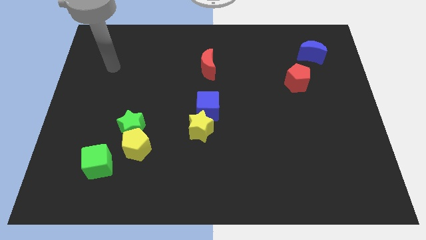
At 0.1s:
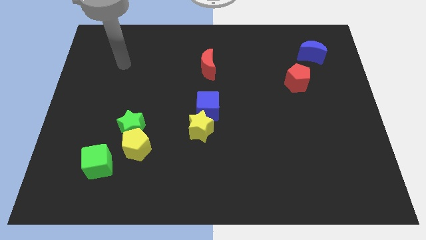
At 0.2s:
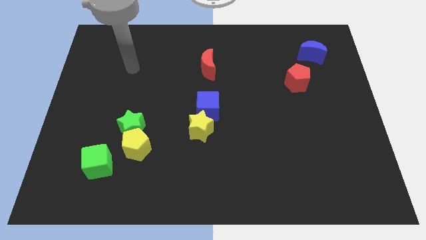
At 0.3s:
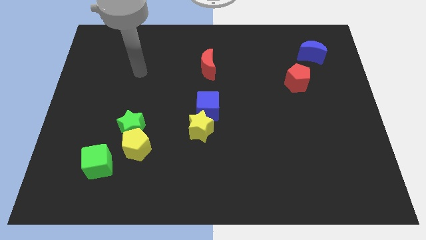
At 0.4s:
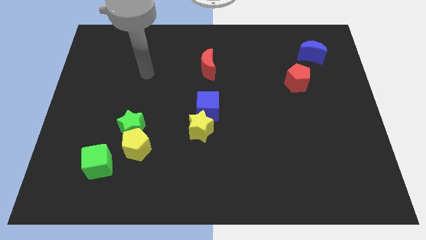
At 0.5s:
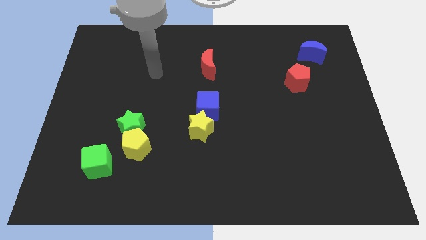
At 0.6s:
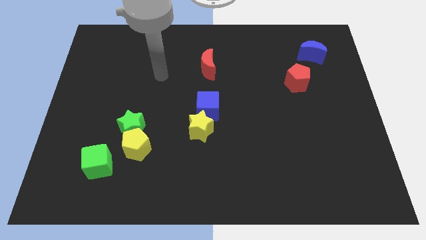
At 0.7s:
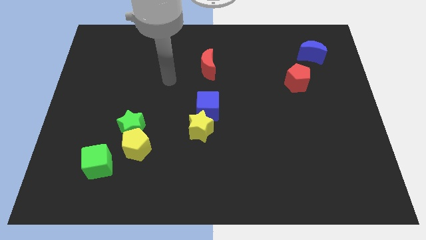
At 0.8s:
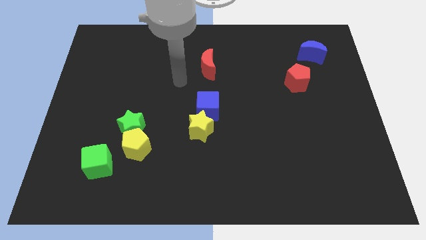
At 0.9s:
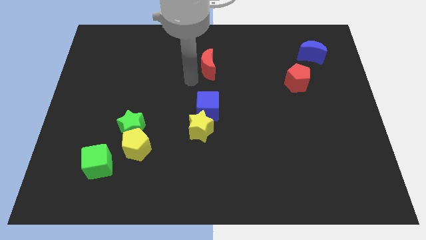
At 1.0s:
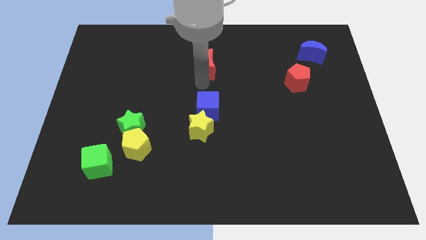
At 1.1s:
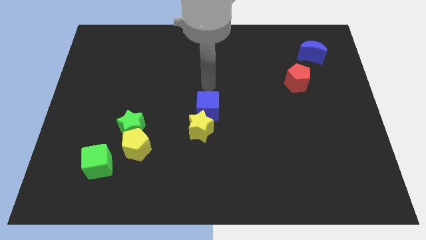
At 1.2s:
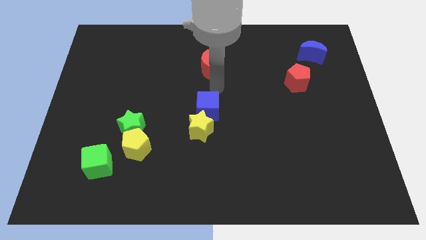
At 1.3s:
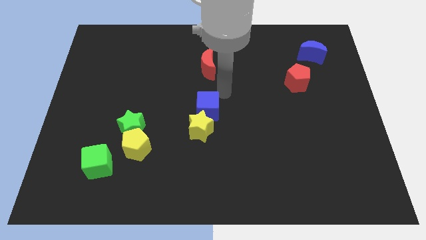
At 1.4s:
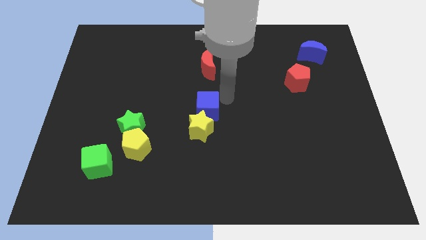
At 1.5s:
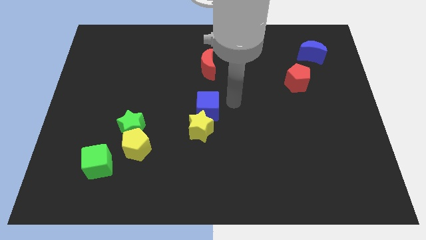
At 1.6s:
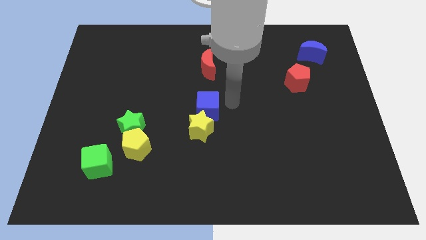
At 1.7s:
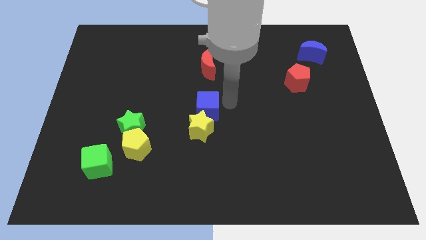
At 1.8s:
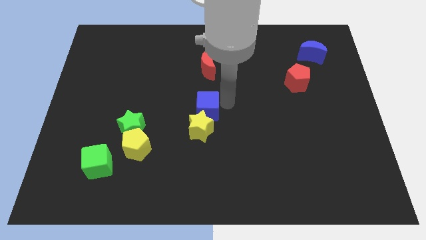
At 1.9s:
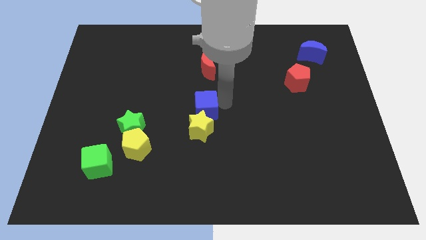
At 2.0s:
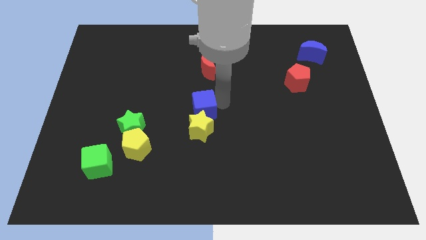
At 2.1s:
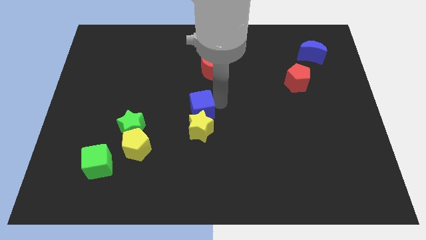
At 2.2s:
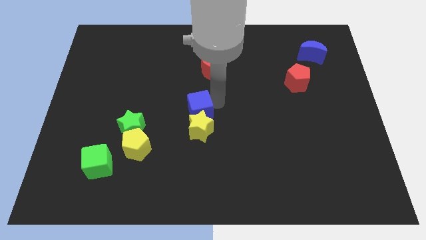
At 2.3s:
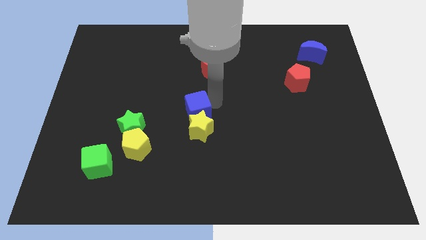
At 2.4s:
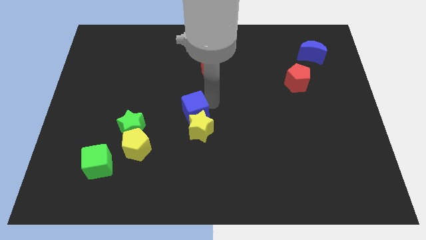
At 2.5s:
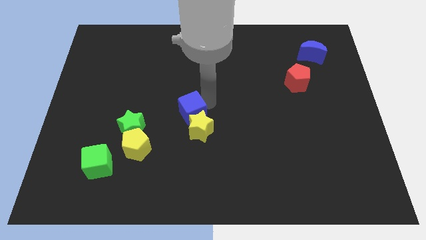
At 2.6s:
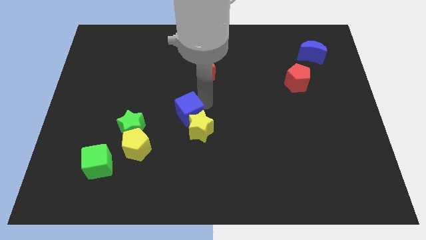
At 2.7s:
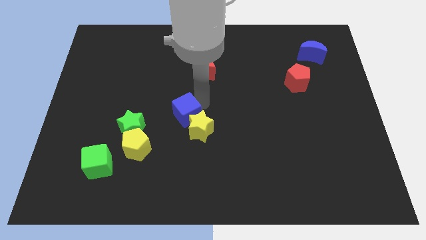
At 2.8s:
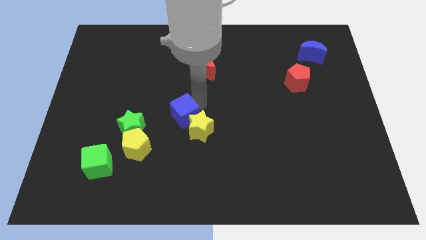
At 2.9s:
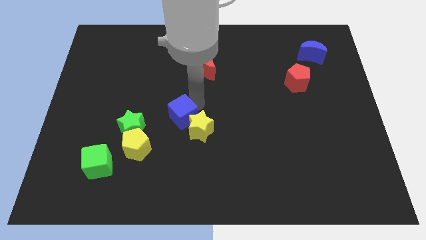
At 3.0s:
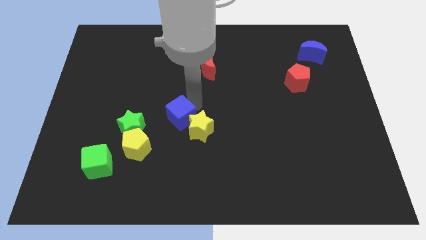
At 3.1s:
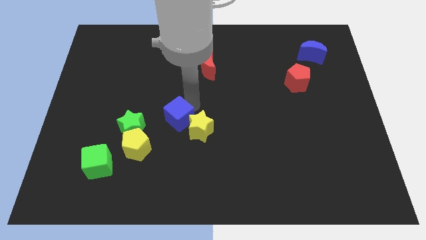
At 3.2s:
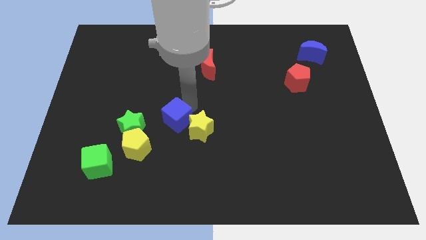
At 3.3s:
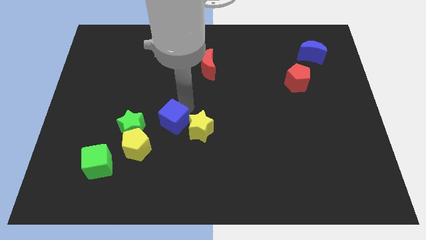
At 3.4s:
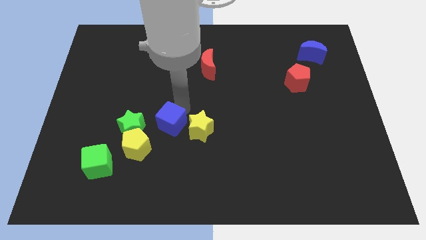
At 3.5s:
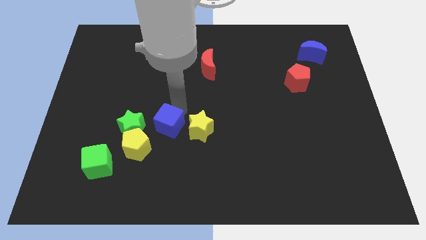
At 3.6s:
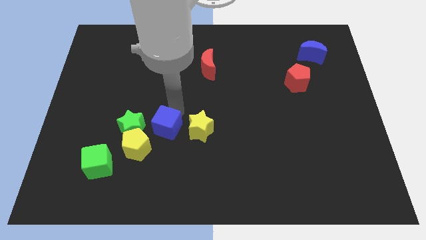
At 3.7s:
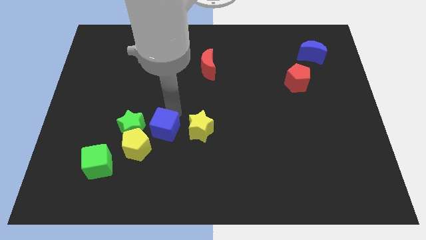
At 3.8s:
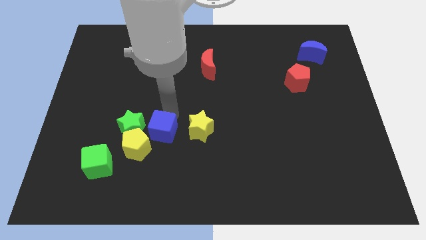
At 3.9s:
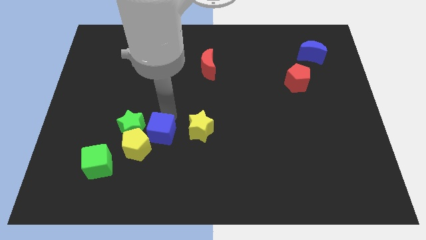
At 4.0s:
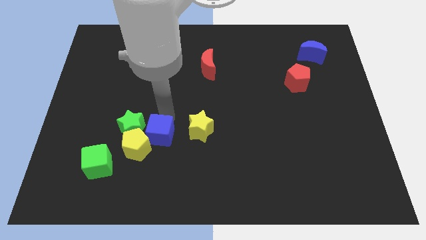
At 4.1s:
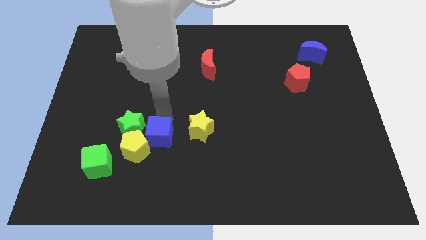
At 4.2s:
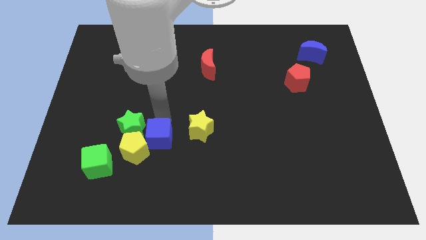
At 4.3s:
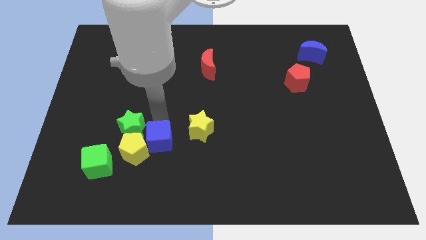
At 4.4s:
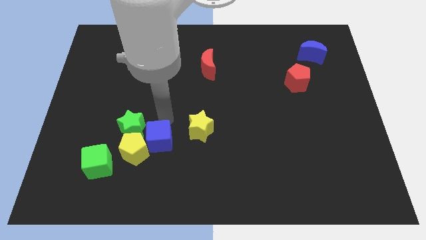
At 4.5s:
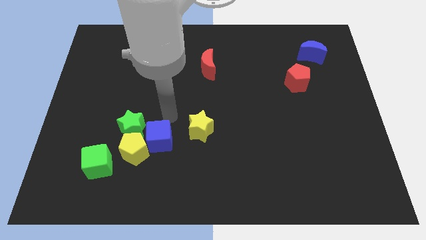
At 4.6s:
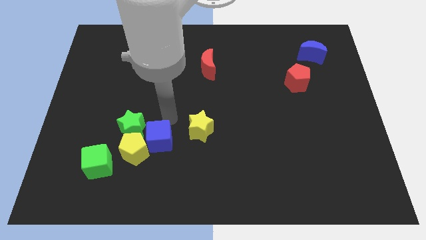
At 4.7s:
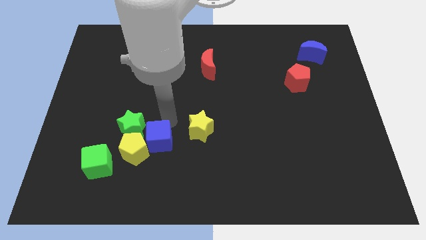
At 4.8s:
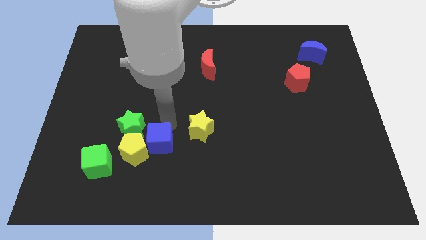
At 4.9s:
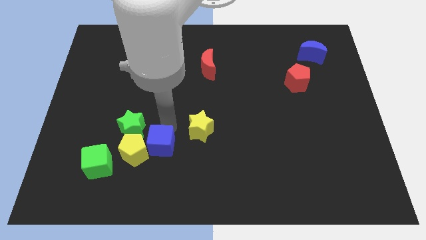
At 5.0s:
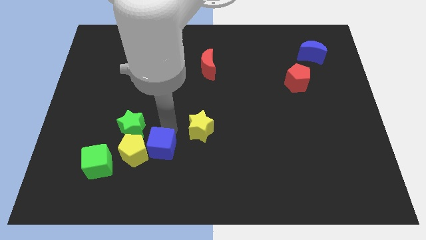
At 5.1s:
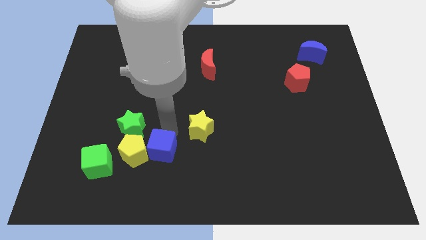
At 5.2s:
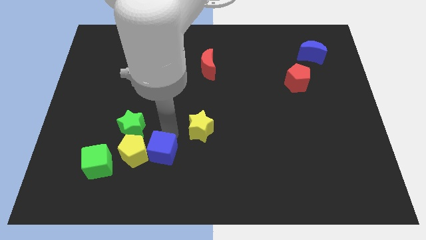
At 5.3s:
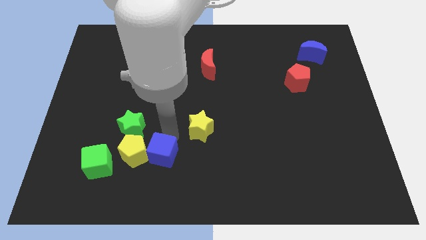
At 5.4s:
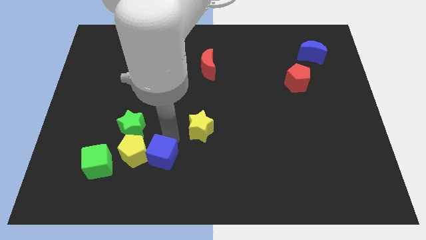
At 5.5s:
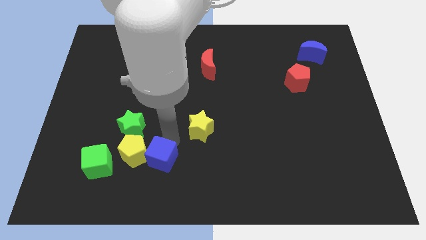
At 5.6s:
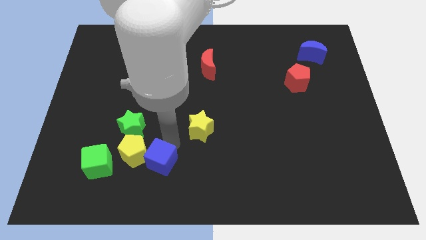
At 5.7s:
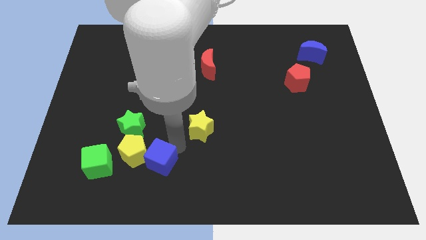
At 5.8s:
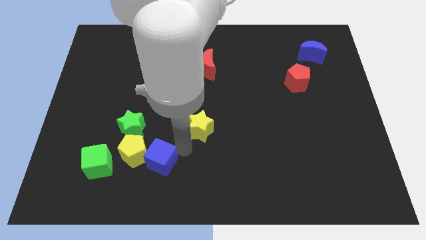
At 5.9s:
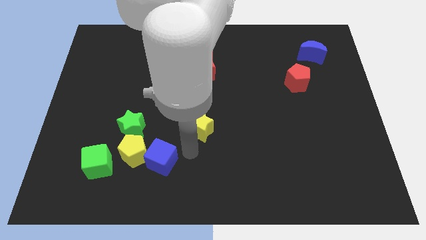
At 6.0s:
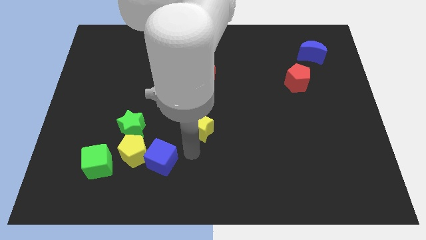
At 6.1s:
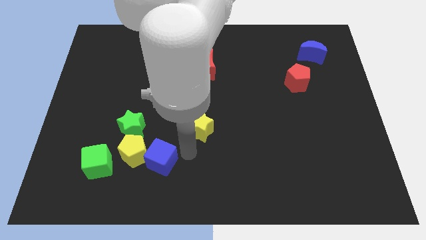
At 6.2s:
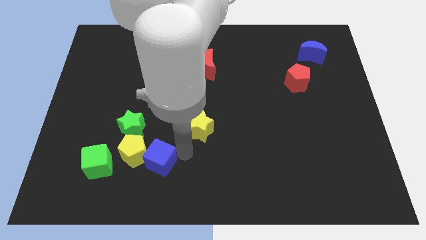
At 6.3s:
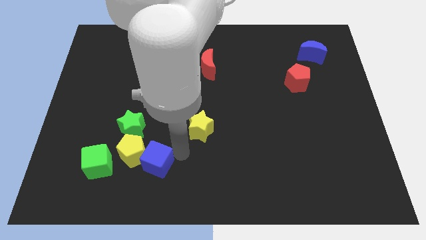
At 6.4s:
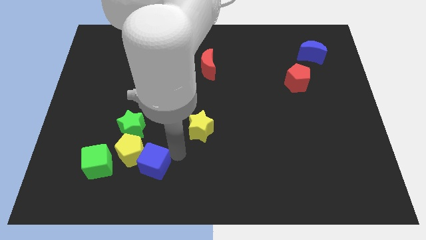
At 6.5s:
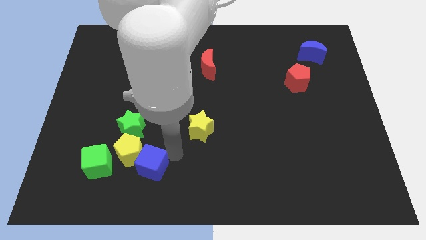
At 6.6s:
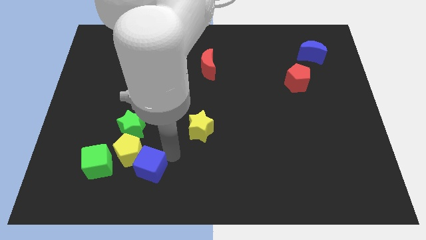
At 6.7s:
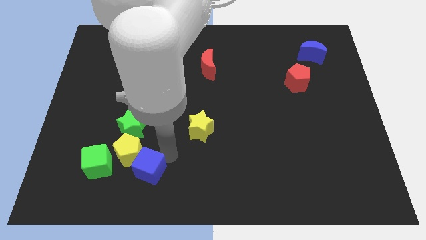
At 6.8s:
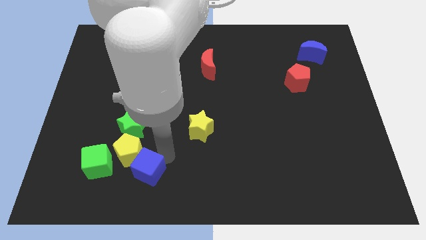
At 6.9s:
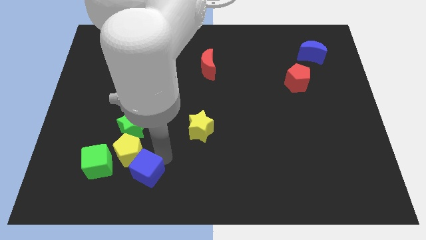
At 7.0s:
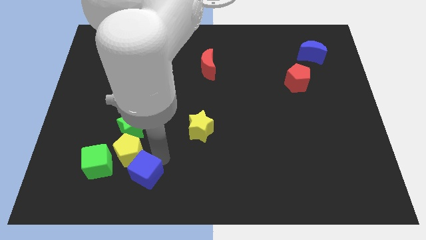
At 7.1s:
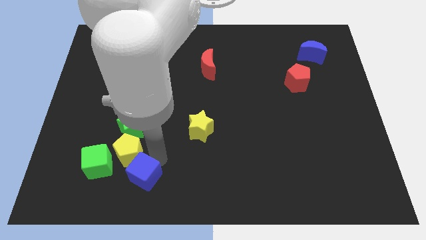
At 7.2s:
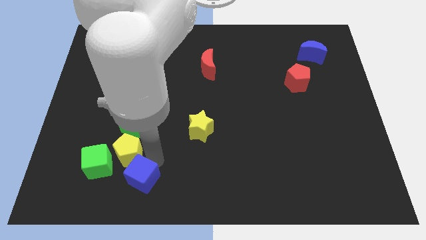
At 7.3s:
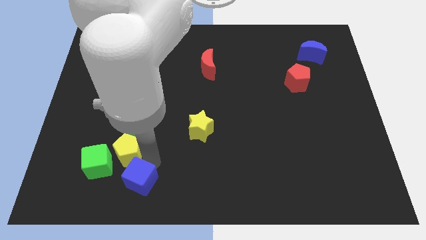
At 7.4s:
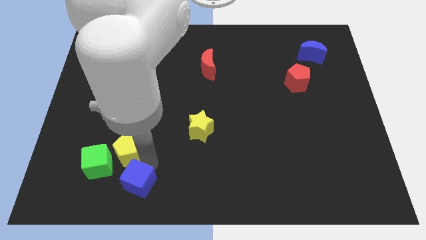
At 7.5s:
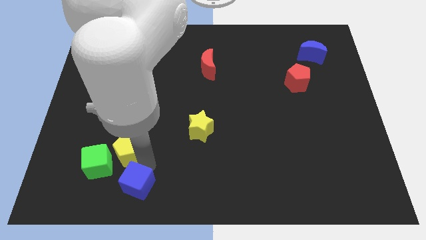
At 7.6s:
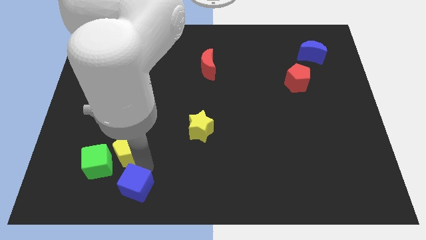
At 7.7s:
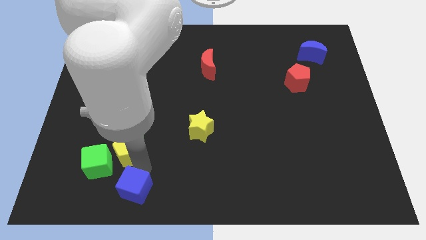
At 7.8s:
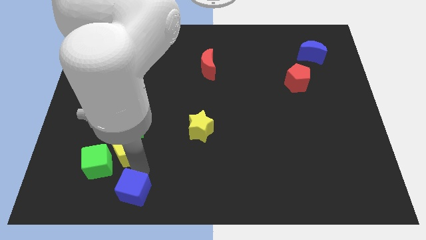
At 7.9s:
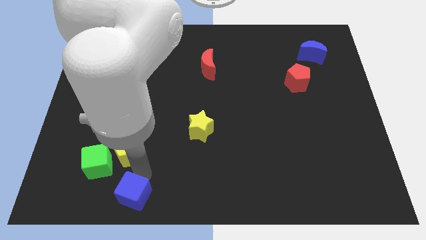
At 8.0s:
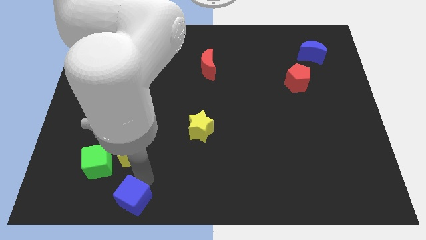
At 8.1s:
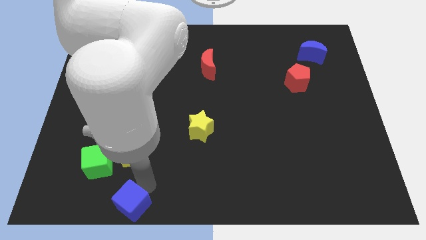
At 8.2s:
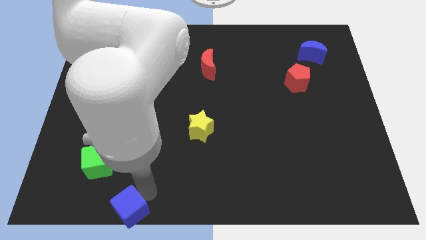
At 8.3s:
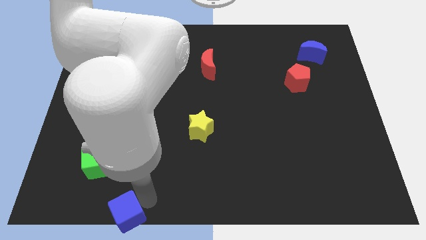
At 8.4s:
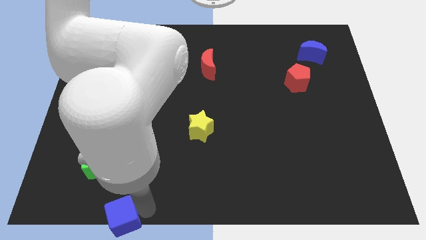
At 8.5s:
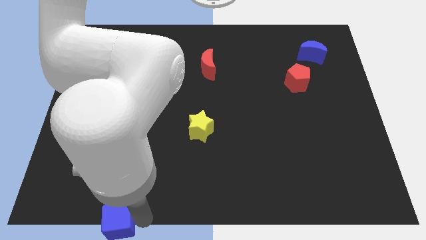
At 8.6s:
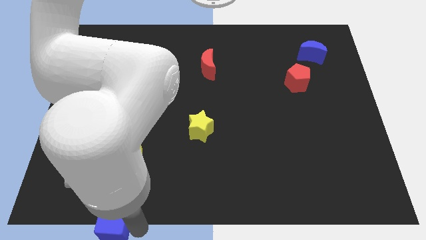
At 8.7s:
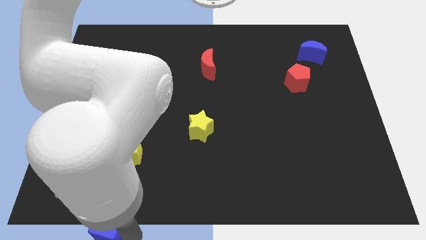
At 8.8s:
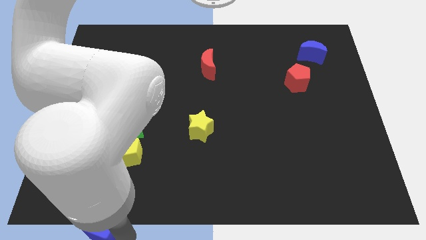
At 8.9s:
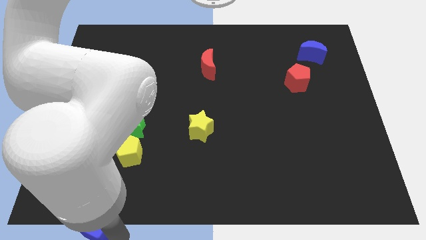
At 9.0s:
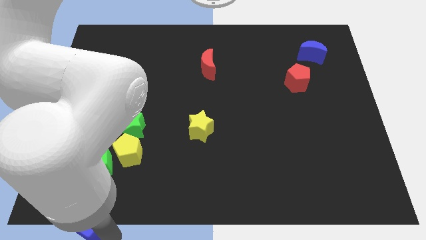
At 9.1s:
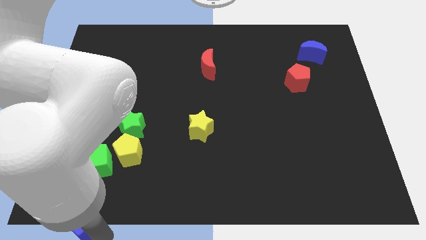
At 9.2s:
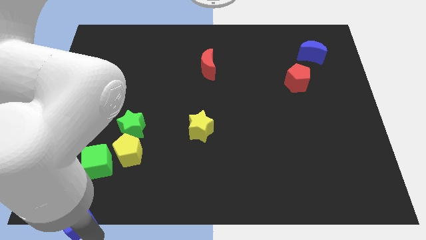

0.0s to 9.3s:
put the blue cube to the bottom left of the board
